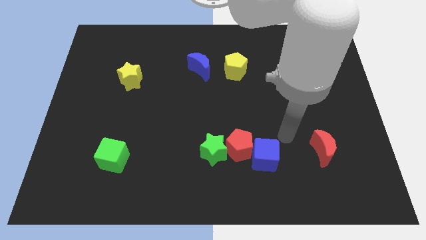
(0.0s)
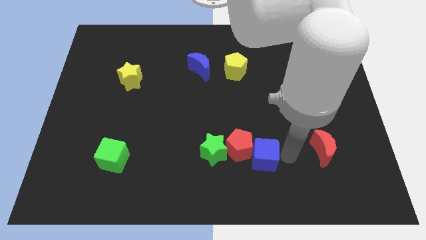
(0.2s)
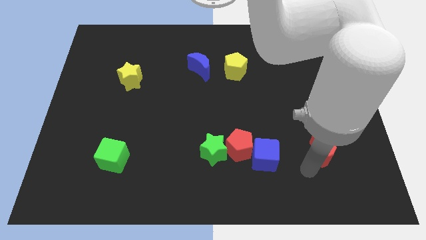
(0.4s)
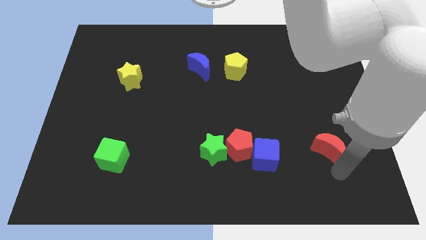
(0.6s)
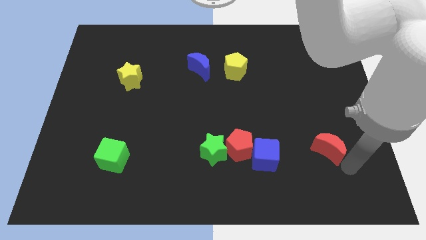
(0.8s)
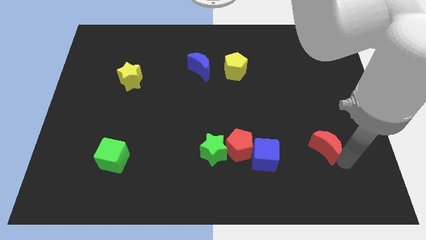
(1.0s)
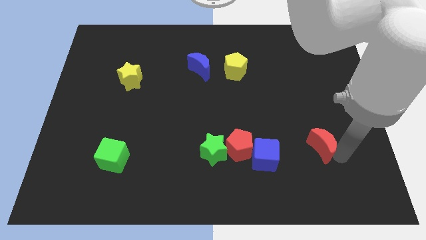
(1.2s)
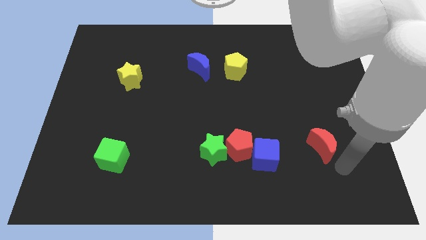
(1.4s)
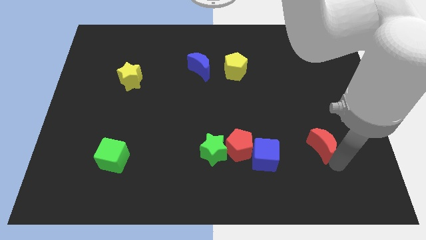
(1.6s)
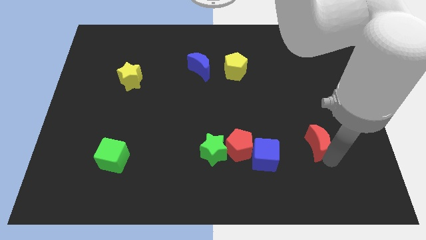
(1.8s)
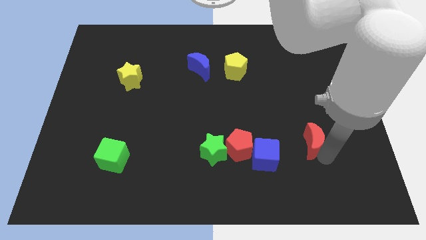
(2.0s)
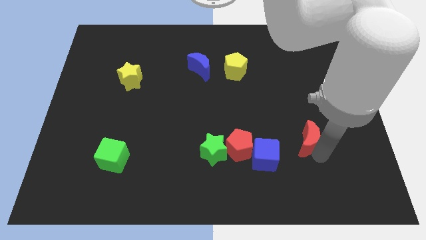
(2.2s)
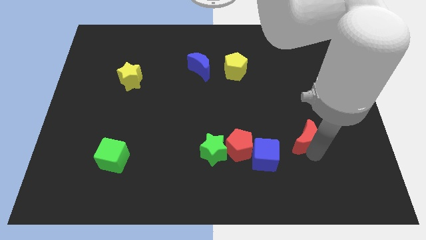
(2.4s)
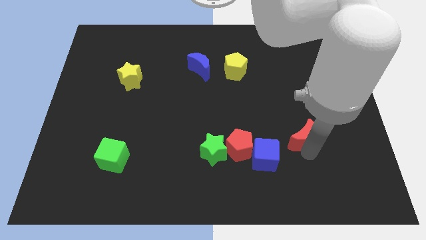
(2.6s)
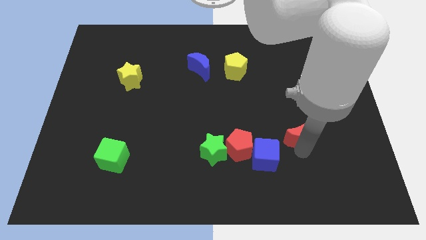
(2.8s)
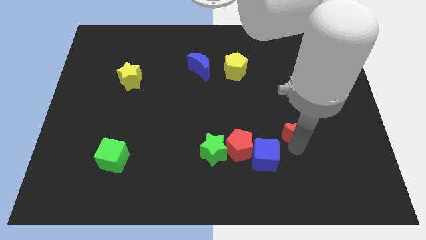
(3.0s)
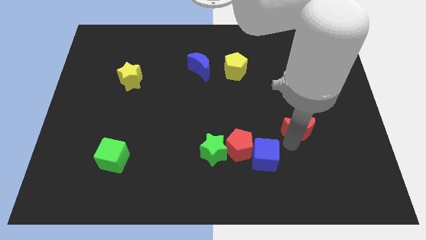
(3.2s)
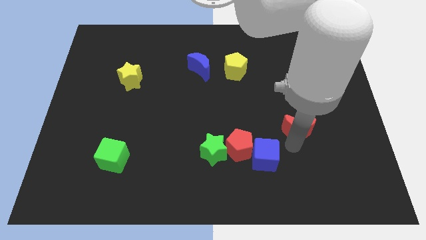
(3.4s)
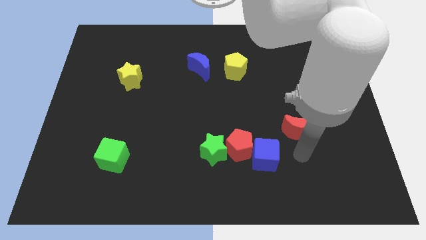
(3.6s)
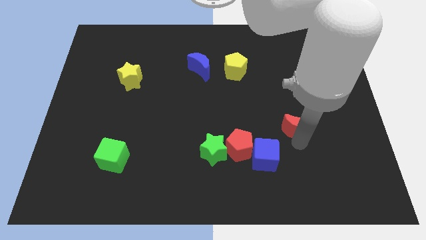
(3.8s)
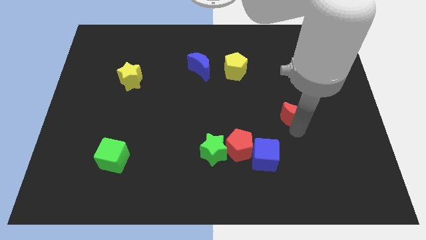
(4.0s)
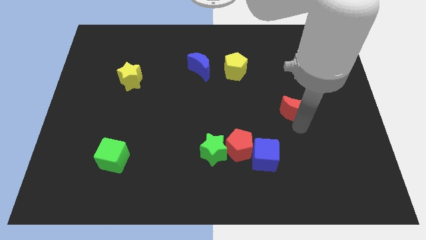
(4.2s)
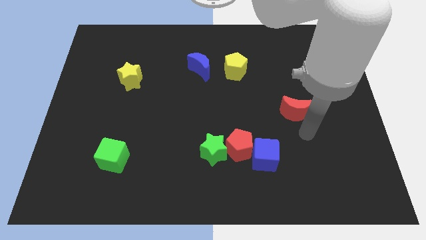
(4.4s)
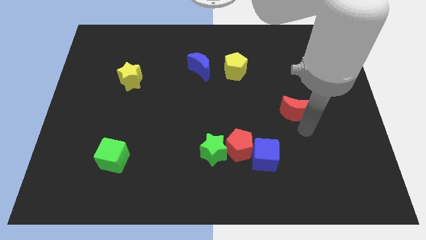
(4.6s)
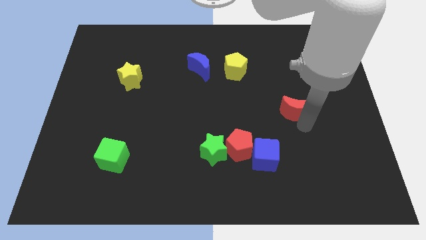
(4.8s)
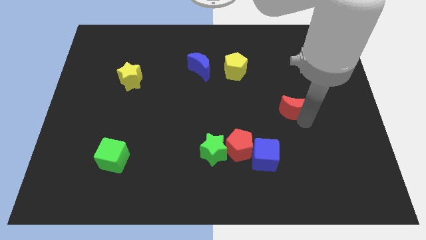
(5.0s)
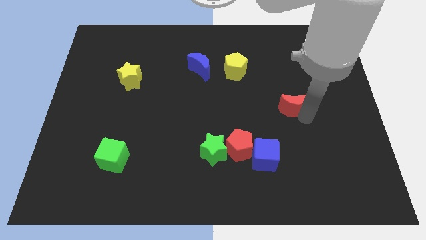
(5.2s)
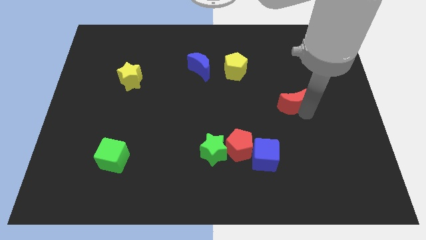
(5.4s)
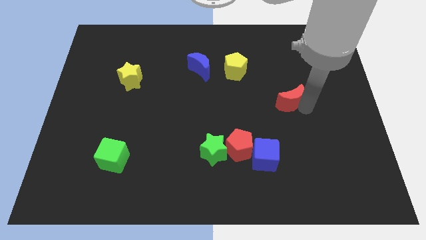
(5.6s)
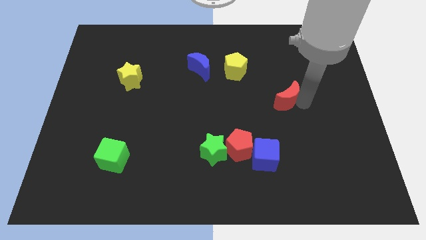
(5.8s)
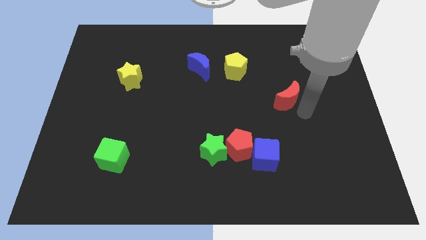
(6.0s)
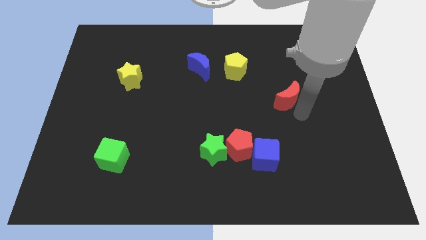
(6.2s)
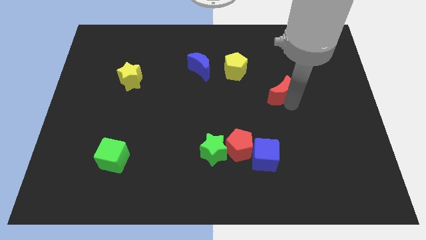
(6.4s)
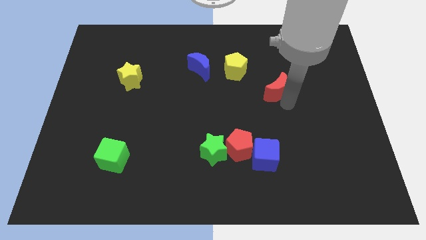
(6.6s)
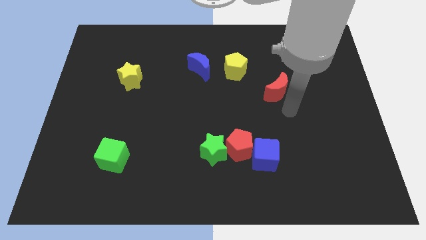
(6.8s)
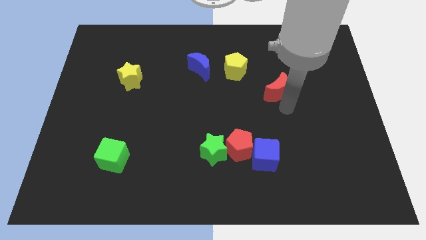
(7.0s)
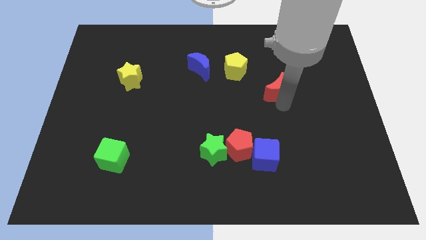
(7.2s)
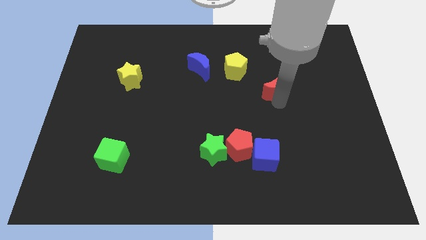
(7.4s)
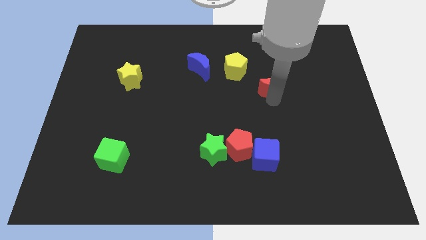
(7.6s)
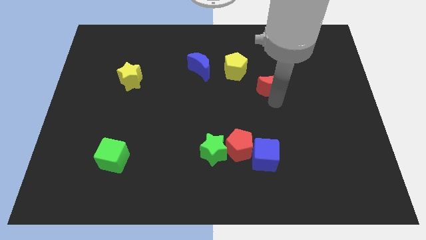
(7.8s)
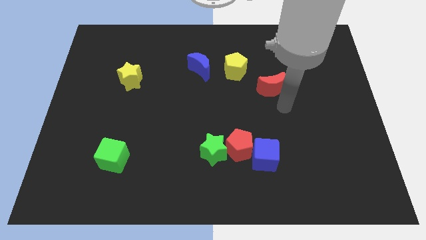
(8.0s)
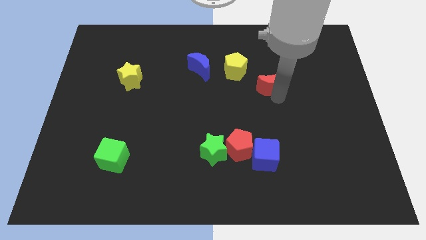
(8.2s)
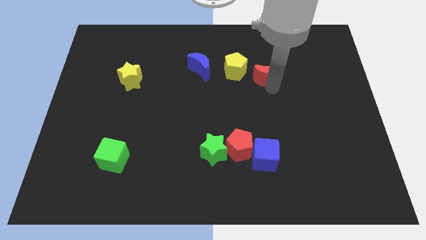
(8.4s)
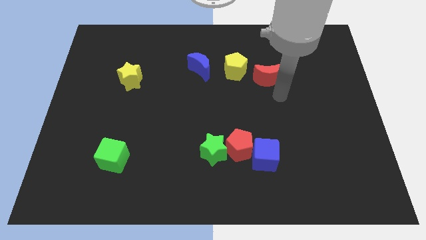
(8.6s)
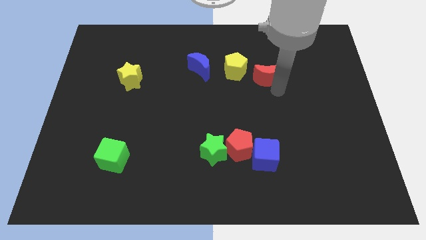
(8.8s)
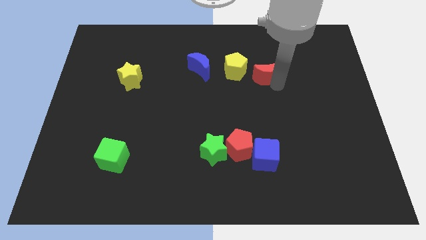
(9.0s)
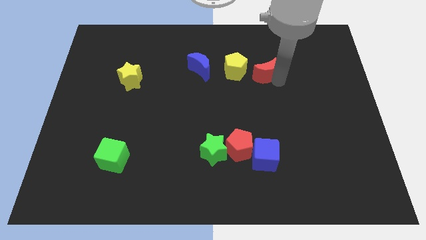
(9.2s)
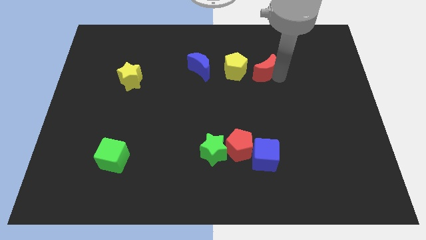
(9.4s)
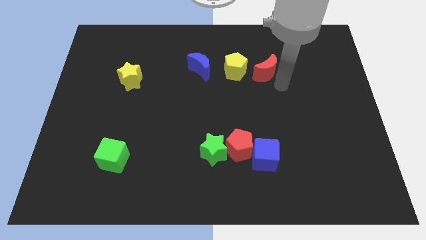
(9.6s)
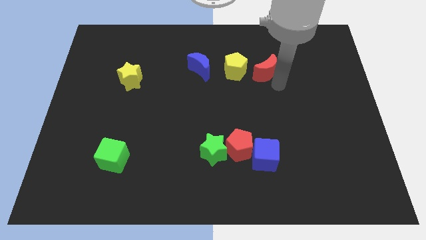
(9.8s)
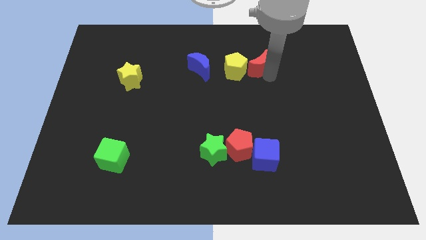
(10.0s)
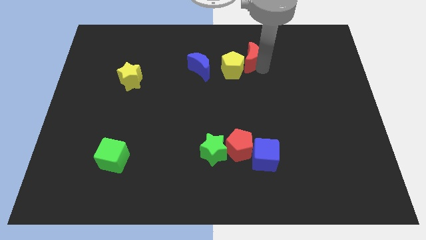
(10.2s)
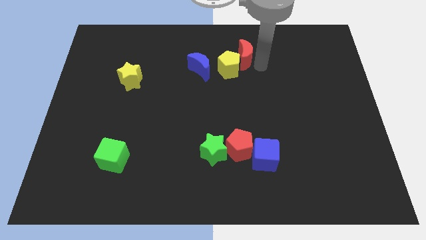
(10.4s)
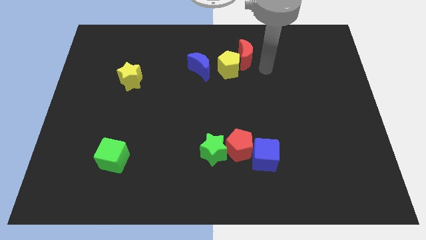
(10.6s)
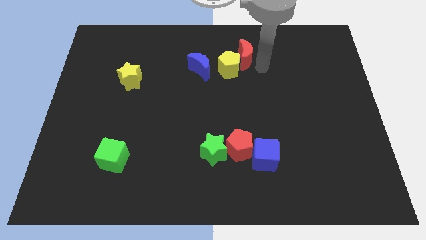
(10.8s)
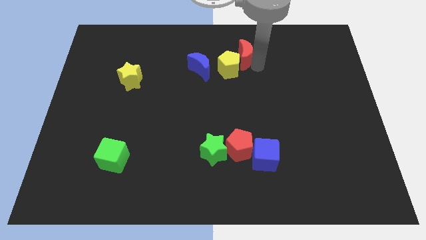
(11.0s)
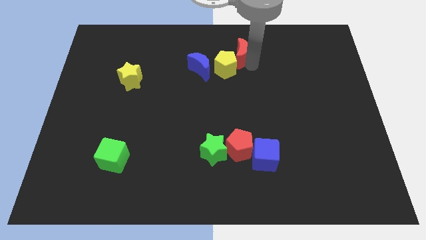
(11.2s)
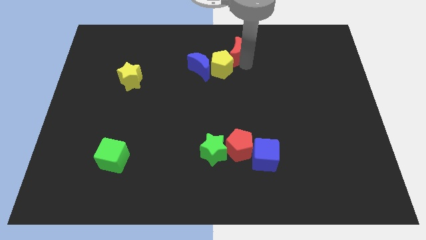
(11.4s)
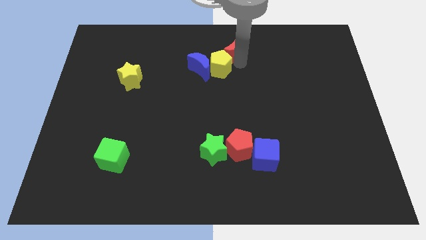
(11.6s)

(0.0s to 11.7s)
slide the red moon to the top
